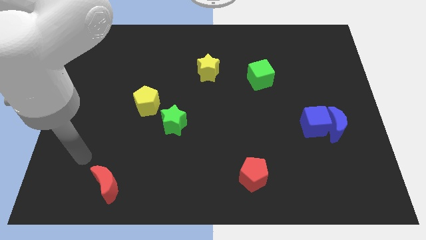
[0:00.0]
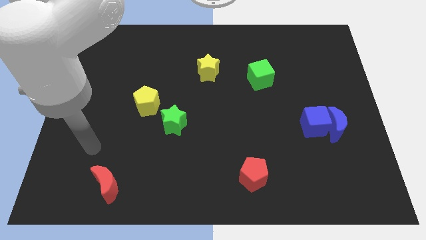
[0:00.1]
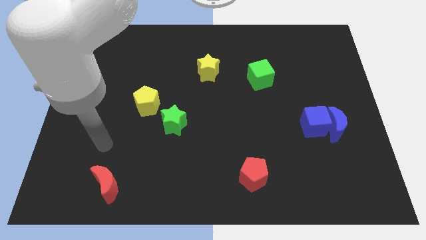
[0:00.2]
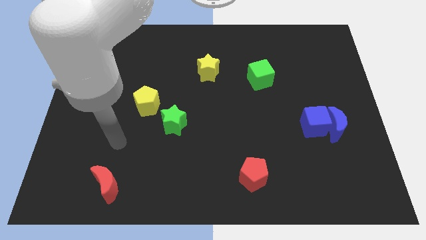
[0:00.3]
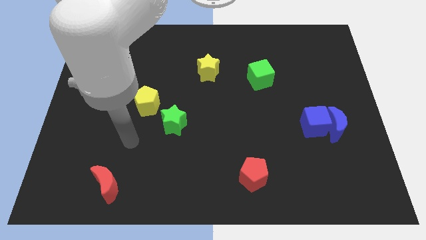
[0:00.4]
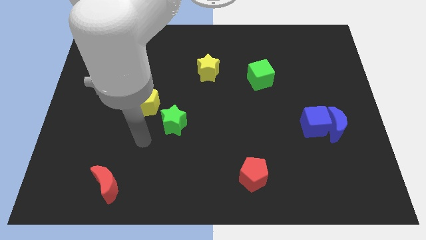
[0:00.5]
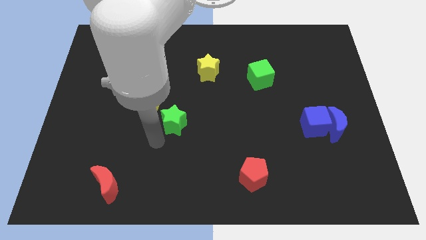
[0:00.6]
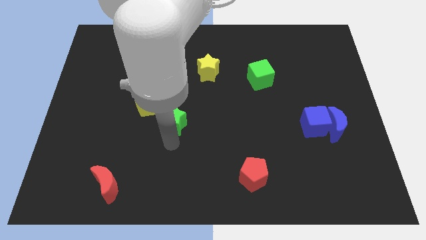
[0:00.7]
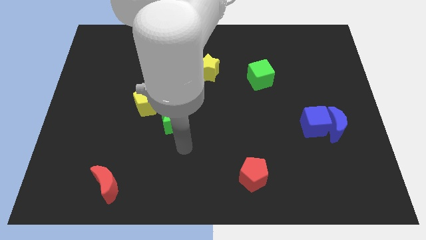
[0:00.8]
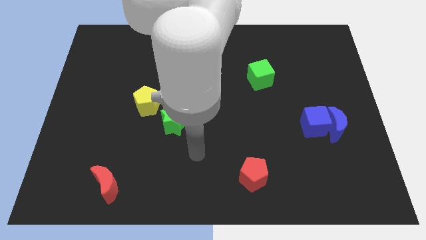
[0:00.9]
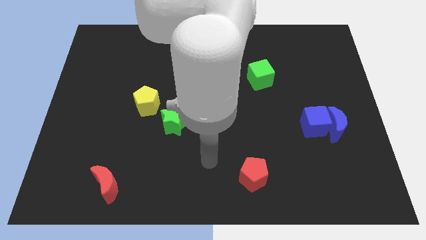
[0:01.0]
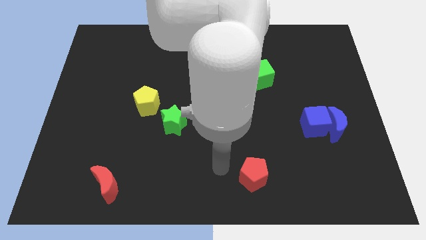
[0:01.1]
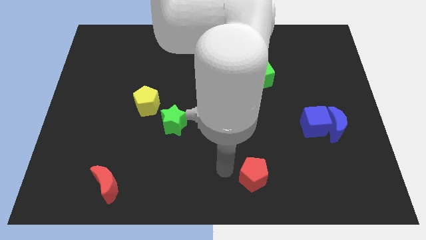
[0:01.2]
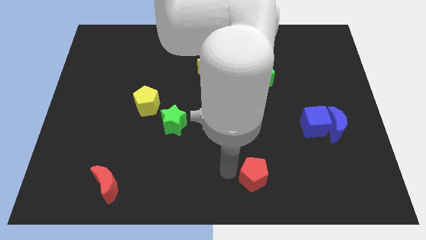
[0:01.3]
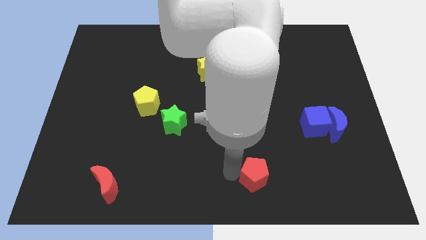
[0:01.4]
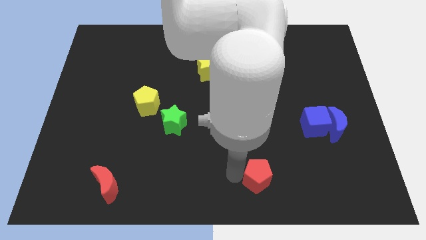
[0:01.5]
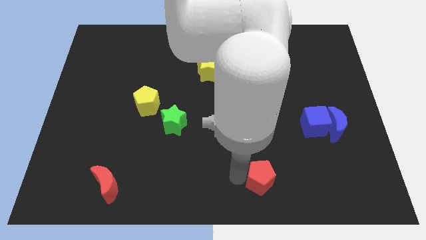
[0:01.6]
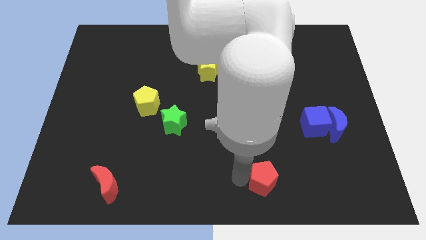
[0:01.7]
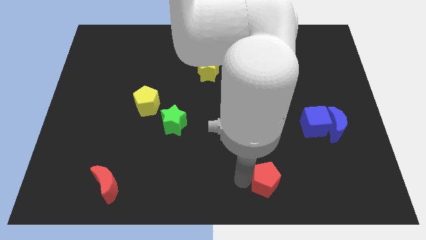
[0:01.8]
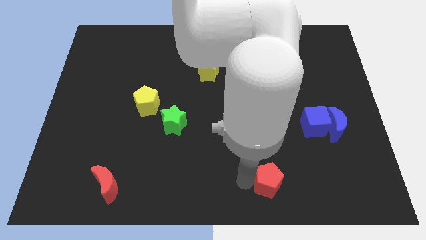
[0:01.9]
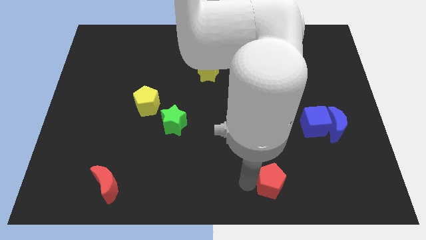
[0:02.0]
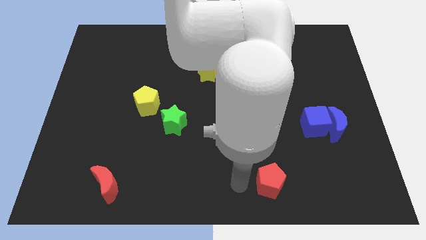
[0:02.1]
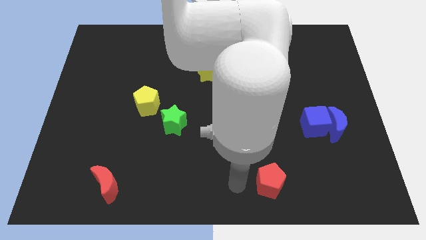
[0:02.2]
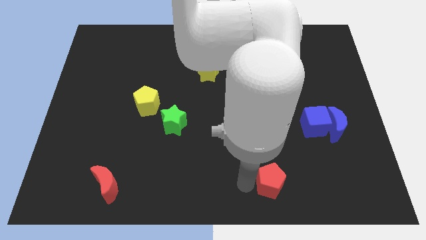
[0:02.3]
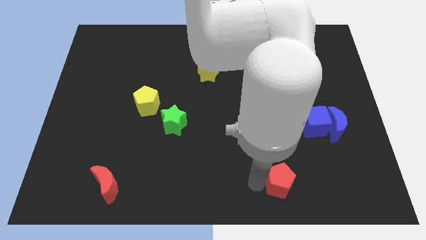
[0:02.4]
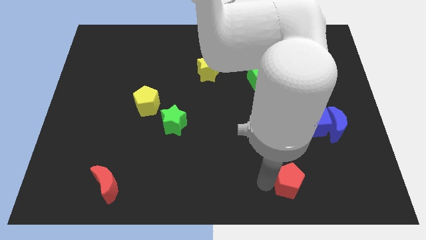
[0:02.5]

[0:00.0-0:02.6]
slightly move the red pentagon right

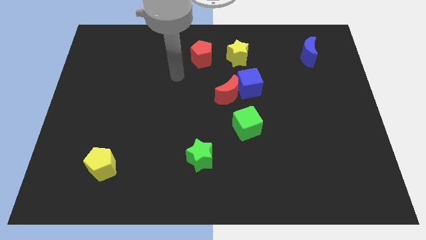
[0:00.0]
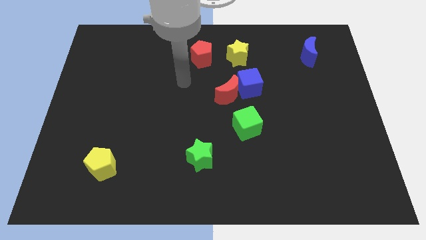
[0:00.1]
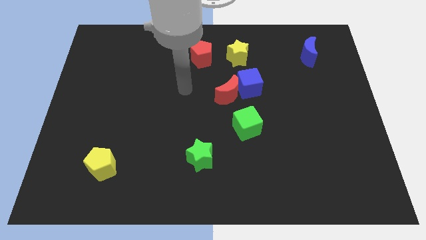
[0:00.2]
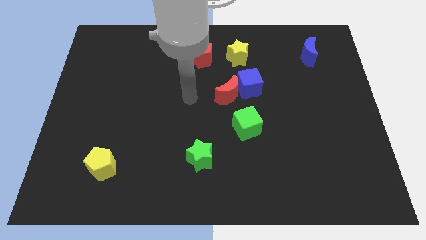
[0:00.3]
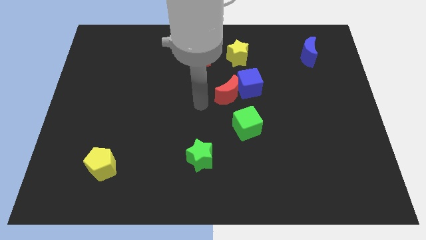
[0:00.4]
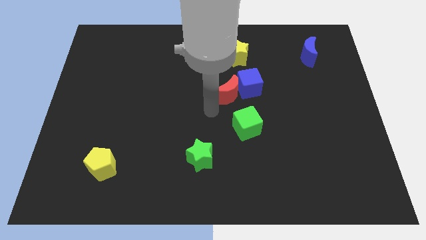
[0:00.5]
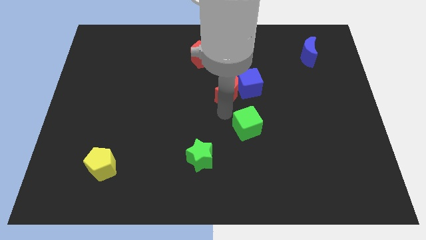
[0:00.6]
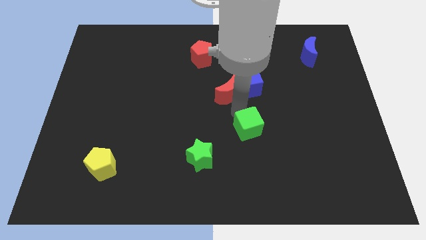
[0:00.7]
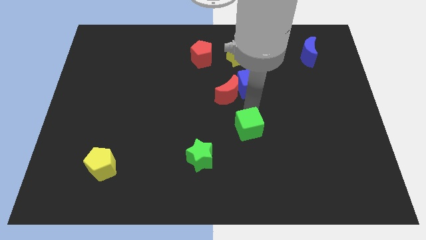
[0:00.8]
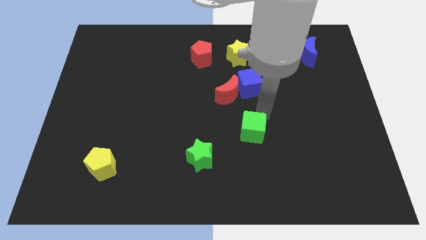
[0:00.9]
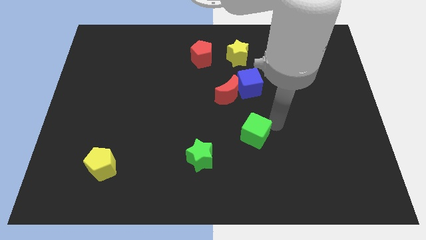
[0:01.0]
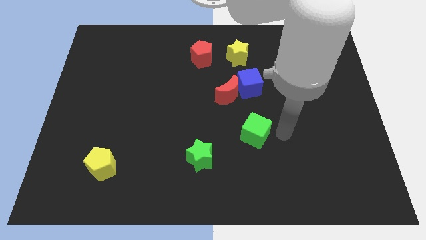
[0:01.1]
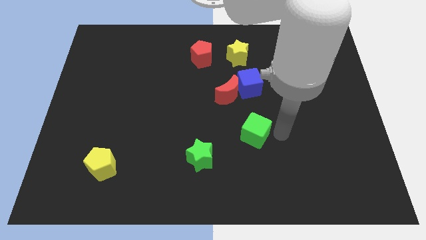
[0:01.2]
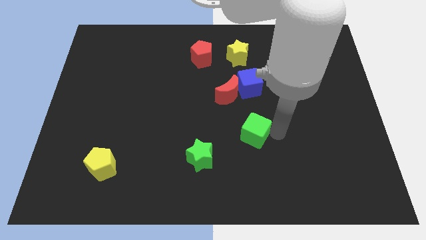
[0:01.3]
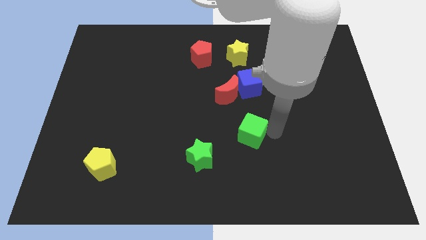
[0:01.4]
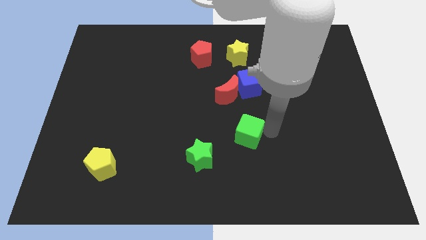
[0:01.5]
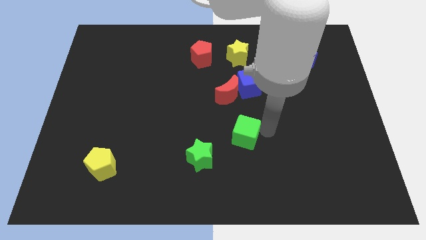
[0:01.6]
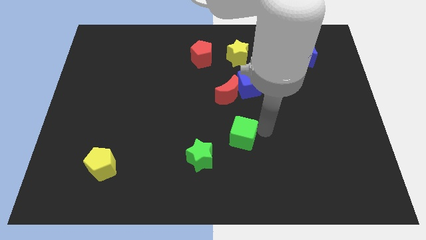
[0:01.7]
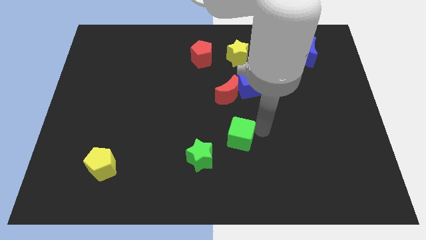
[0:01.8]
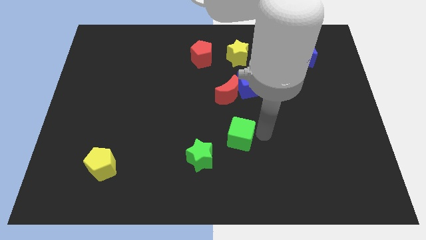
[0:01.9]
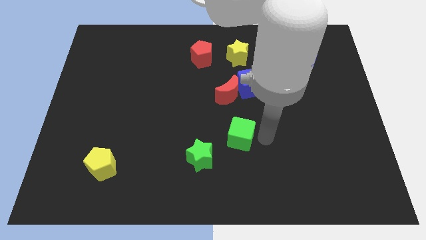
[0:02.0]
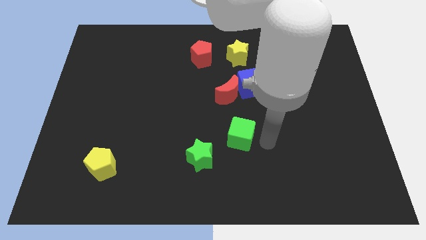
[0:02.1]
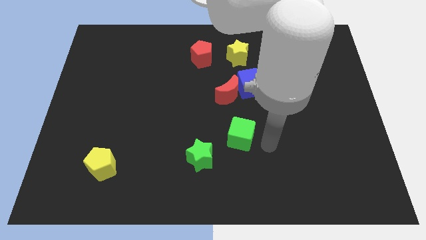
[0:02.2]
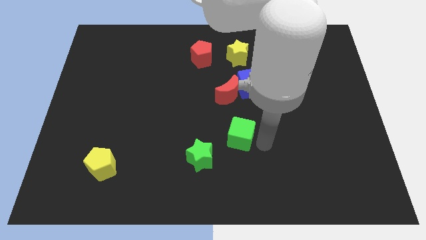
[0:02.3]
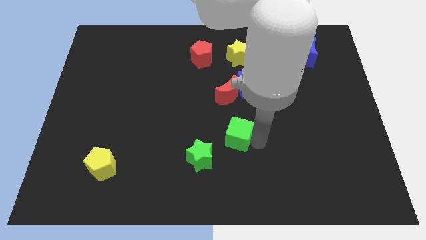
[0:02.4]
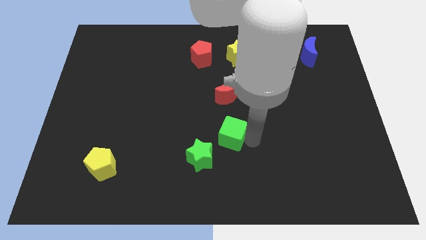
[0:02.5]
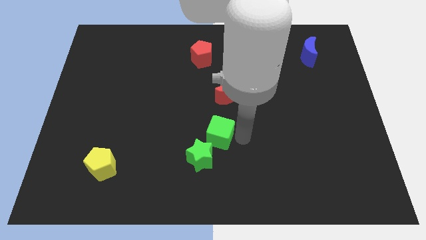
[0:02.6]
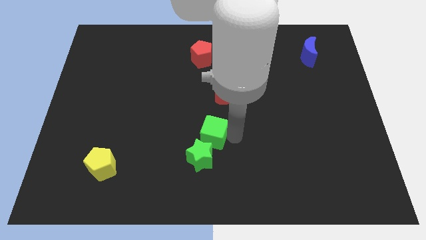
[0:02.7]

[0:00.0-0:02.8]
slide the green cube a little bit to the left

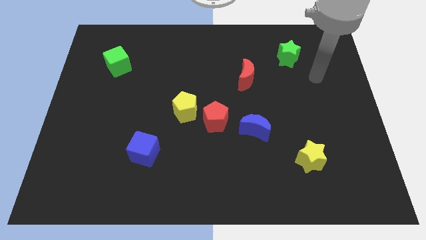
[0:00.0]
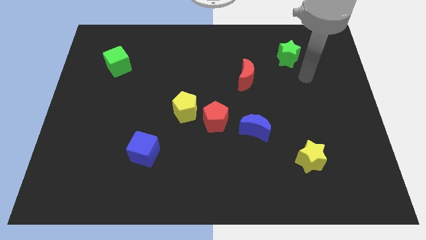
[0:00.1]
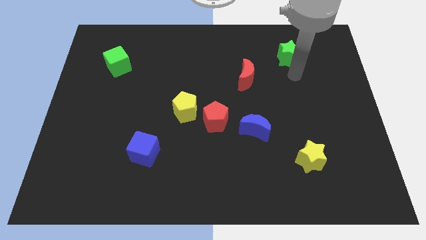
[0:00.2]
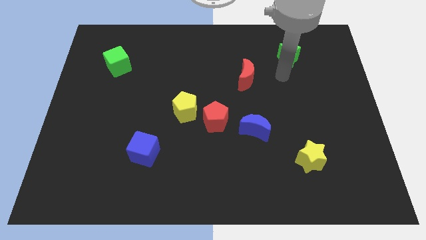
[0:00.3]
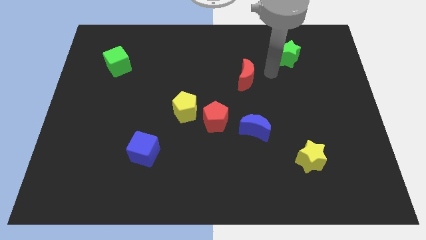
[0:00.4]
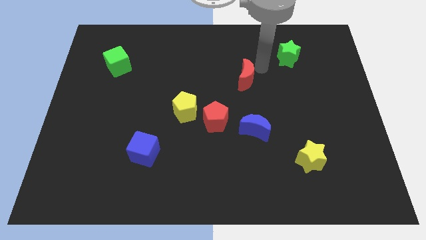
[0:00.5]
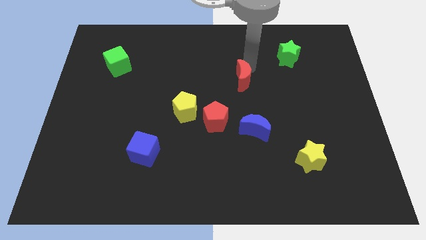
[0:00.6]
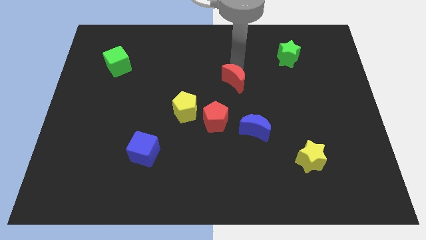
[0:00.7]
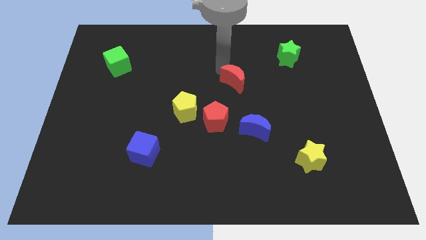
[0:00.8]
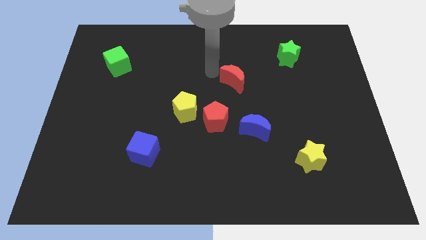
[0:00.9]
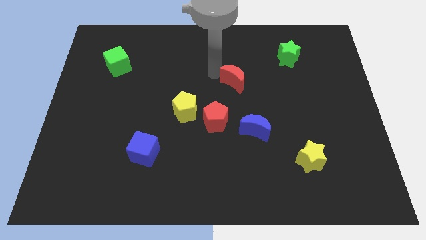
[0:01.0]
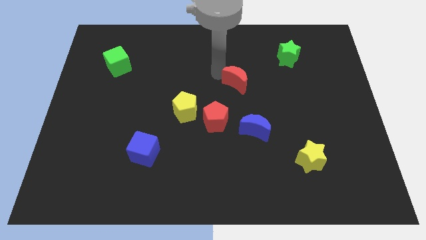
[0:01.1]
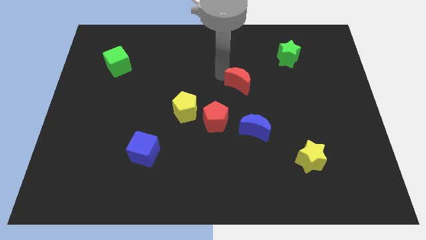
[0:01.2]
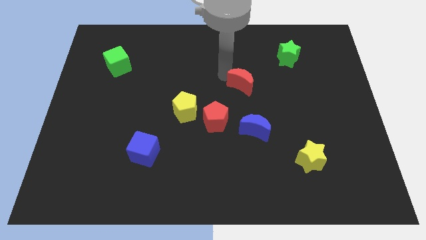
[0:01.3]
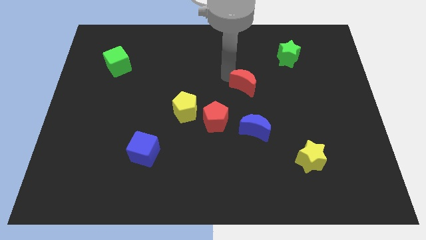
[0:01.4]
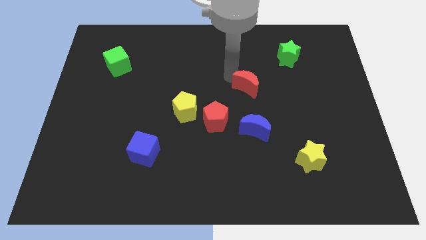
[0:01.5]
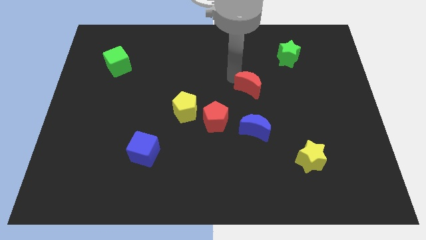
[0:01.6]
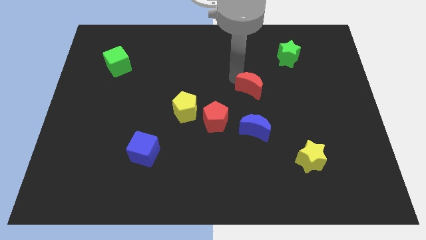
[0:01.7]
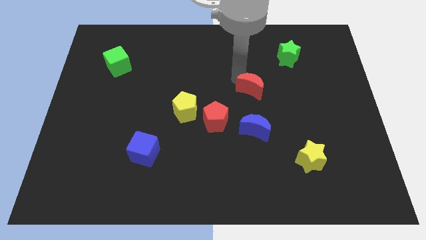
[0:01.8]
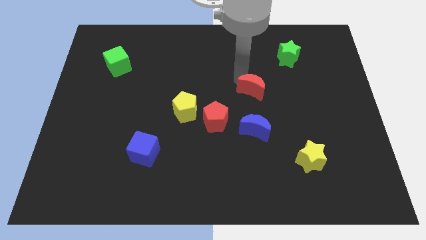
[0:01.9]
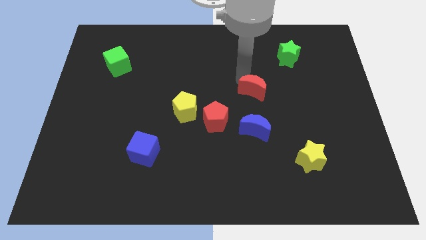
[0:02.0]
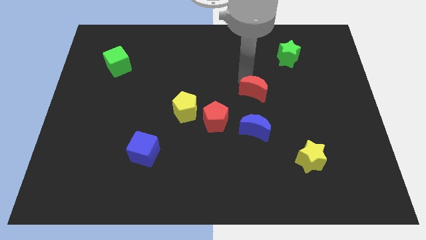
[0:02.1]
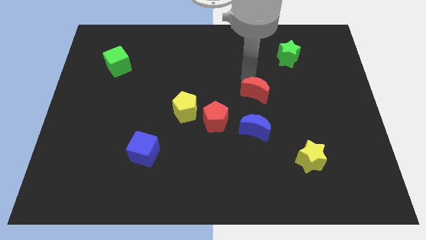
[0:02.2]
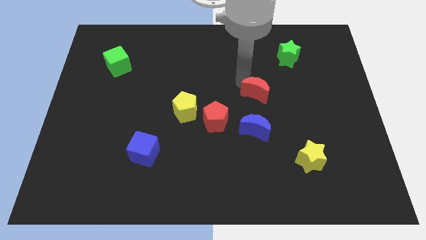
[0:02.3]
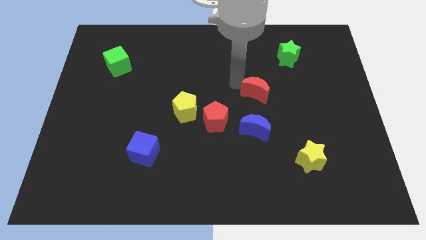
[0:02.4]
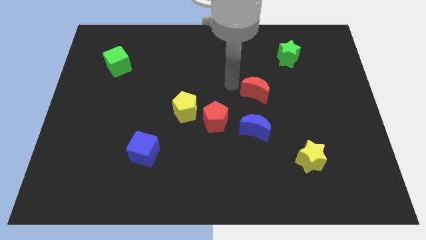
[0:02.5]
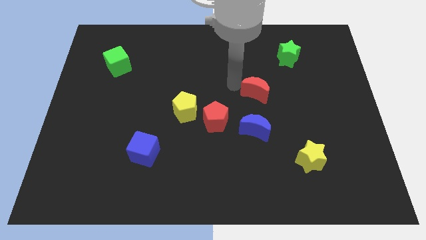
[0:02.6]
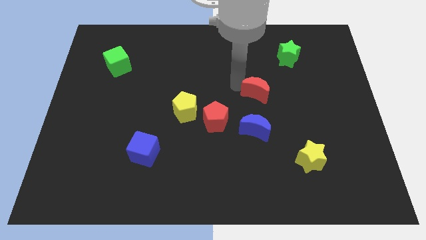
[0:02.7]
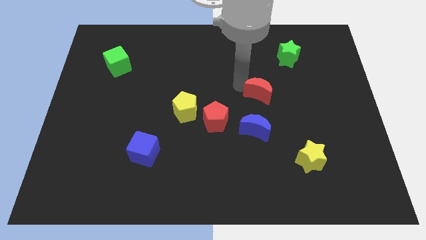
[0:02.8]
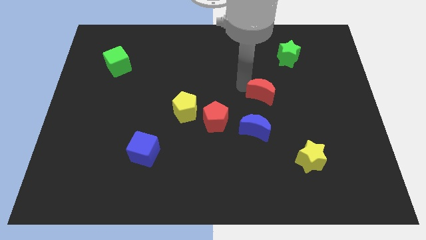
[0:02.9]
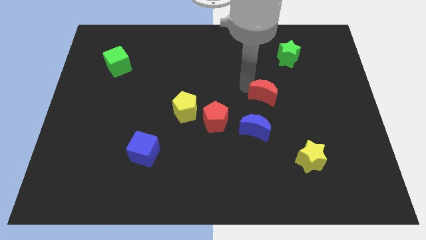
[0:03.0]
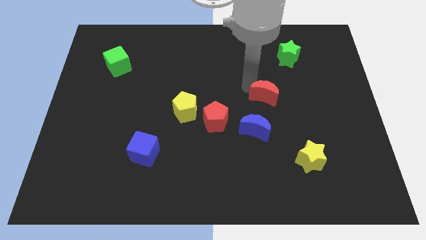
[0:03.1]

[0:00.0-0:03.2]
move the red moon a little bit downwards and right
